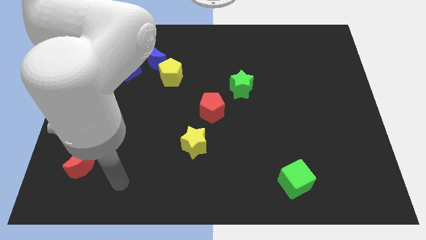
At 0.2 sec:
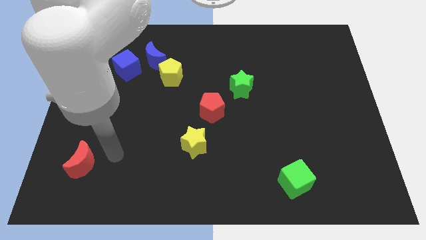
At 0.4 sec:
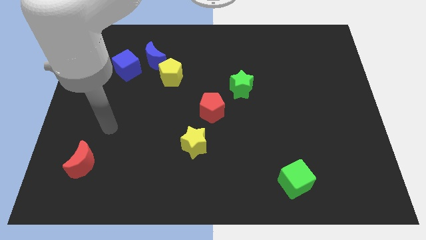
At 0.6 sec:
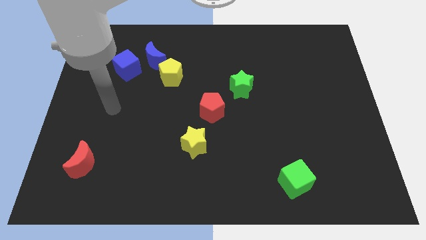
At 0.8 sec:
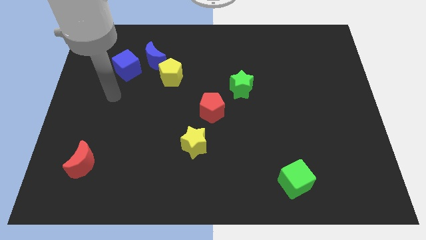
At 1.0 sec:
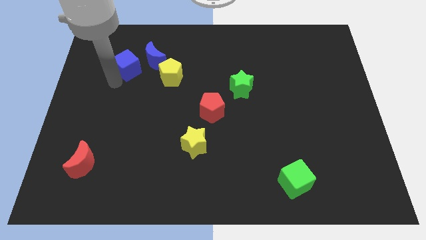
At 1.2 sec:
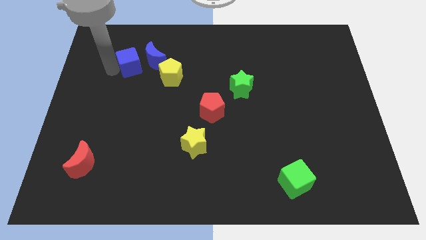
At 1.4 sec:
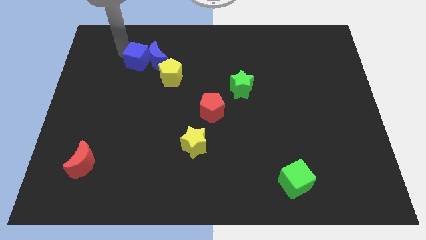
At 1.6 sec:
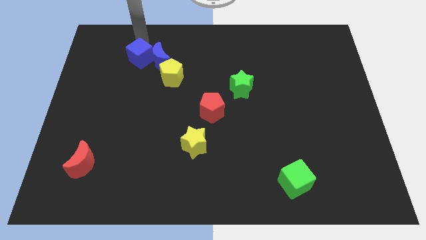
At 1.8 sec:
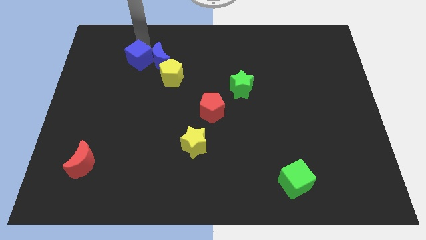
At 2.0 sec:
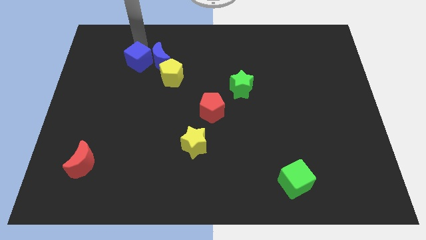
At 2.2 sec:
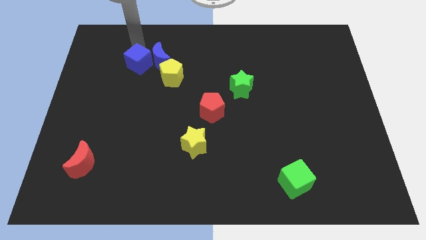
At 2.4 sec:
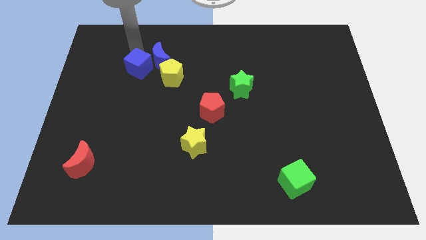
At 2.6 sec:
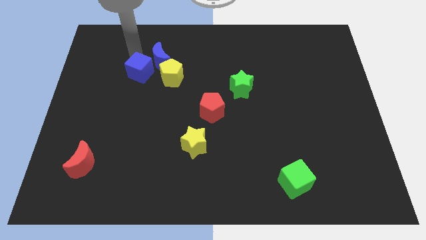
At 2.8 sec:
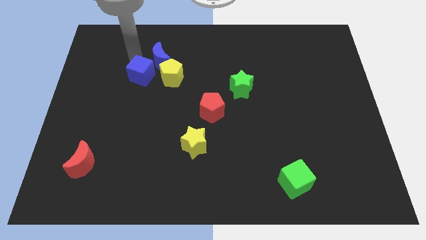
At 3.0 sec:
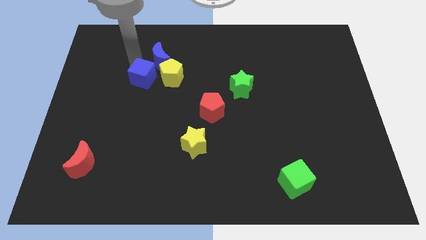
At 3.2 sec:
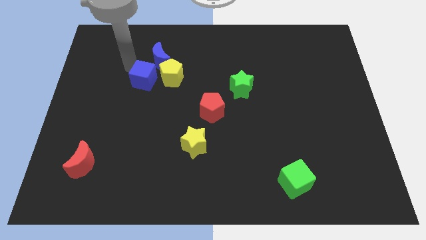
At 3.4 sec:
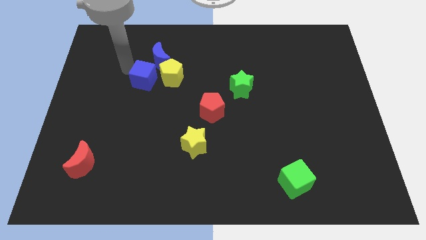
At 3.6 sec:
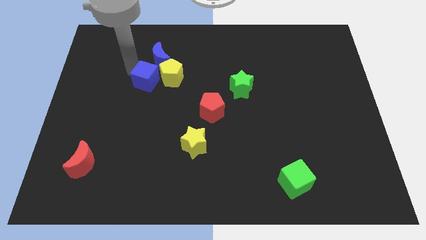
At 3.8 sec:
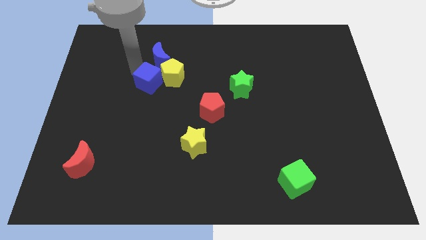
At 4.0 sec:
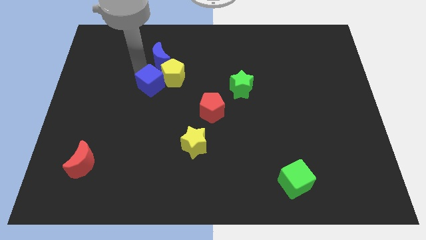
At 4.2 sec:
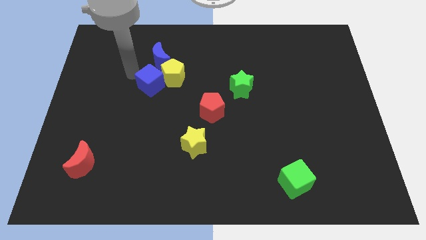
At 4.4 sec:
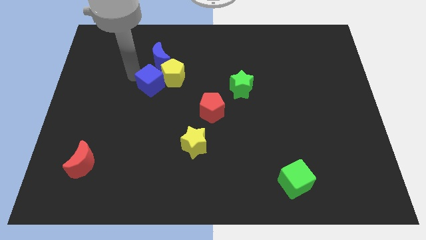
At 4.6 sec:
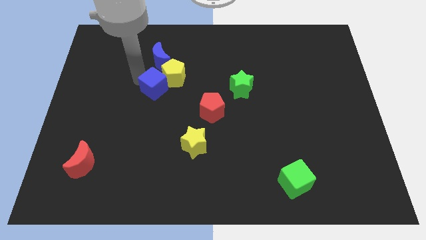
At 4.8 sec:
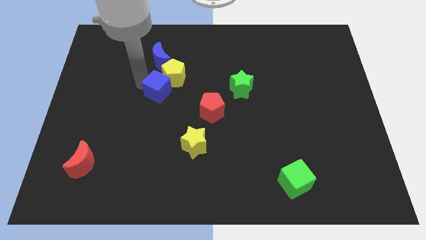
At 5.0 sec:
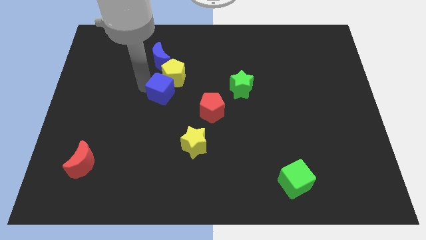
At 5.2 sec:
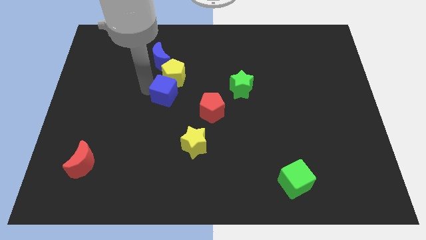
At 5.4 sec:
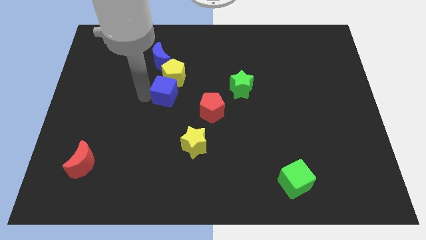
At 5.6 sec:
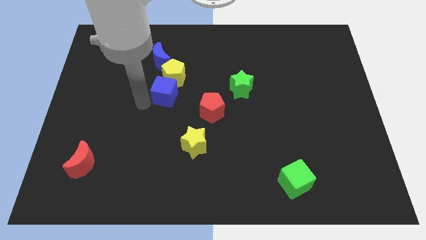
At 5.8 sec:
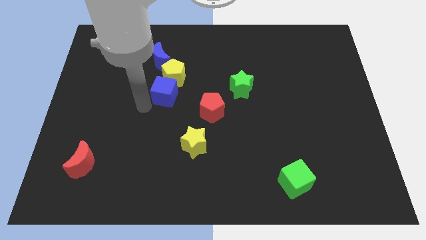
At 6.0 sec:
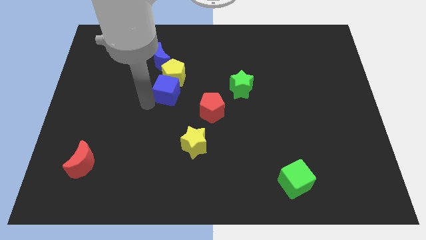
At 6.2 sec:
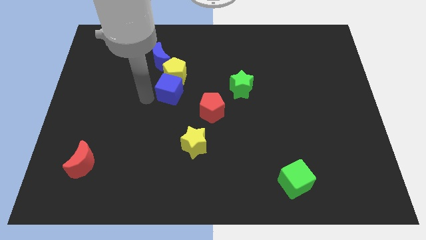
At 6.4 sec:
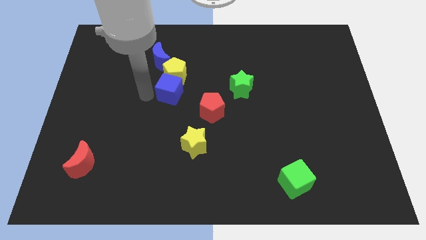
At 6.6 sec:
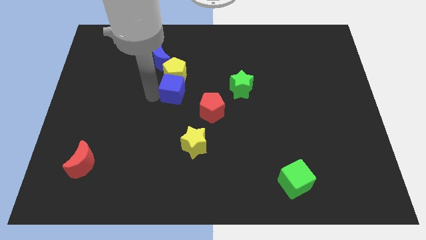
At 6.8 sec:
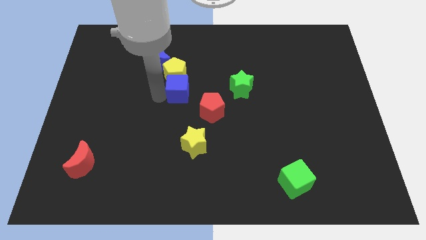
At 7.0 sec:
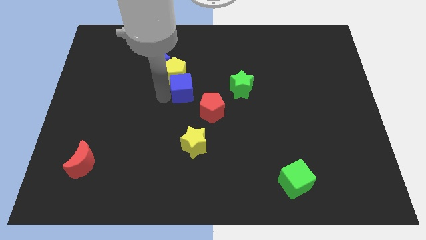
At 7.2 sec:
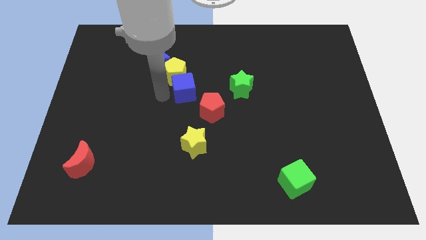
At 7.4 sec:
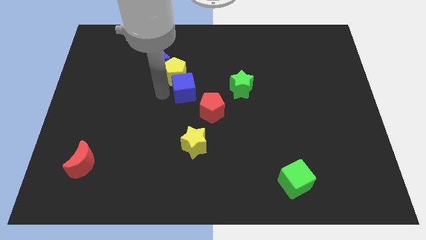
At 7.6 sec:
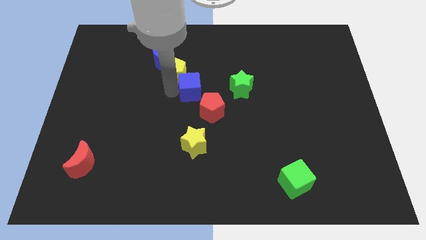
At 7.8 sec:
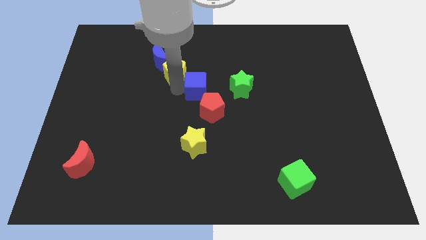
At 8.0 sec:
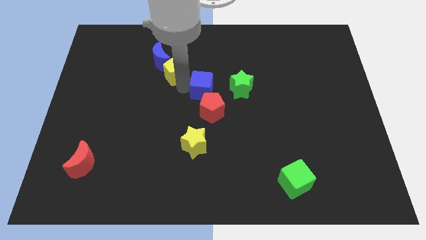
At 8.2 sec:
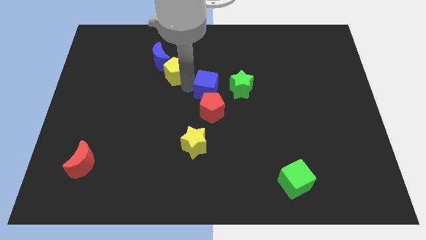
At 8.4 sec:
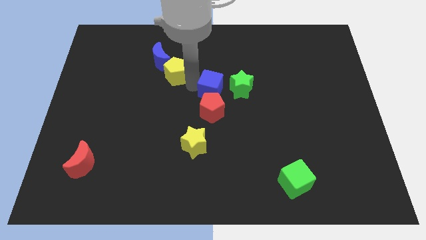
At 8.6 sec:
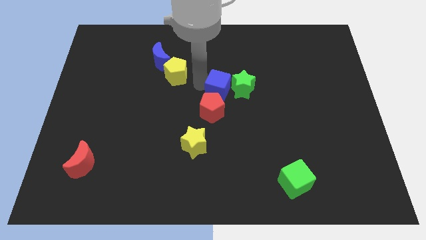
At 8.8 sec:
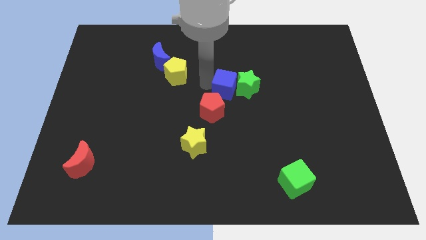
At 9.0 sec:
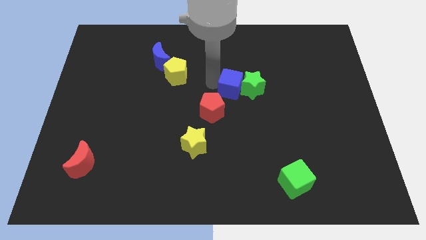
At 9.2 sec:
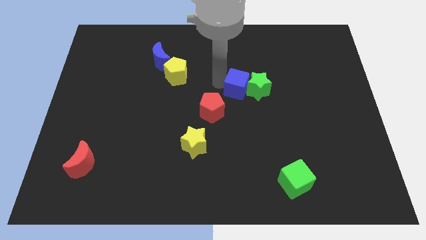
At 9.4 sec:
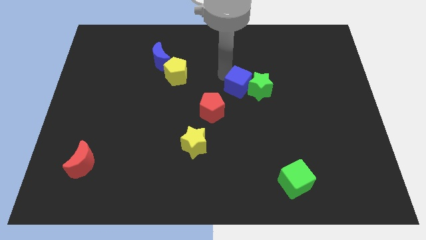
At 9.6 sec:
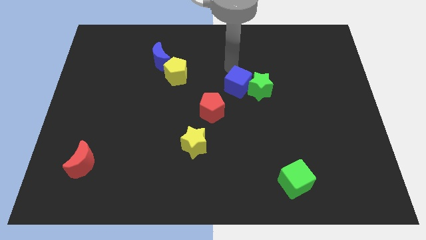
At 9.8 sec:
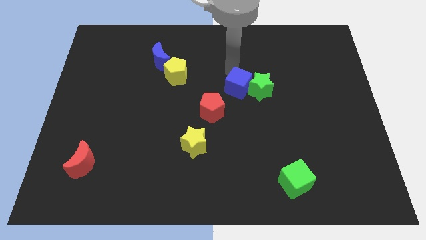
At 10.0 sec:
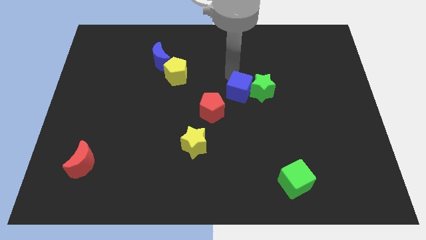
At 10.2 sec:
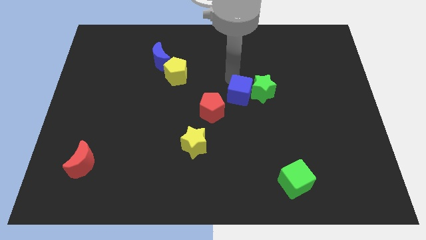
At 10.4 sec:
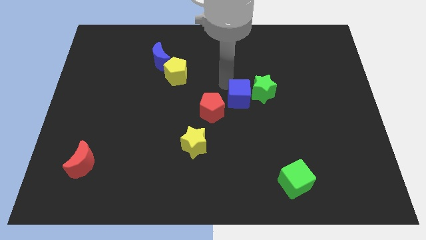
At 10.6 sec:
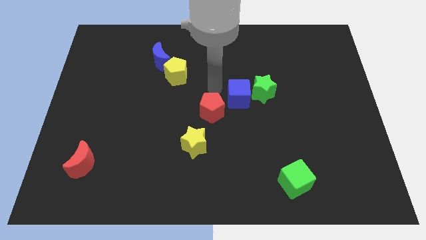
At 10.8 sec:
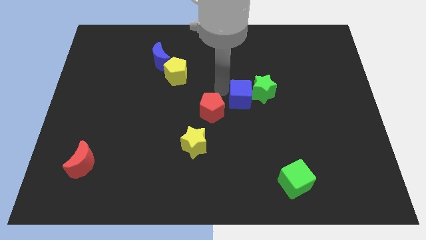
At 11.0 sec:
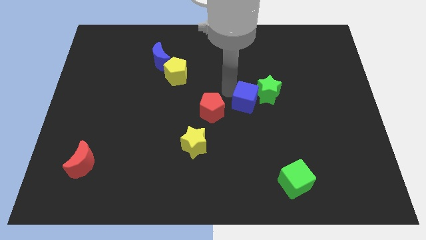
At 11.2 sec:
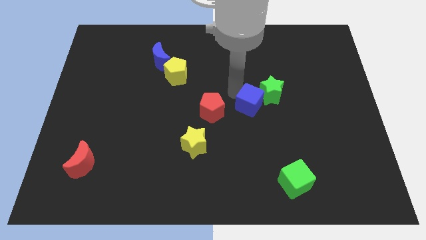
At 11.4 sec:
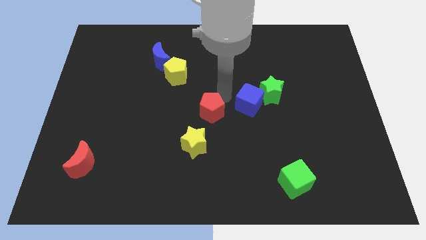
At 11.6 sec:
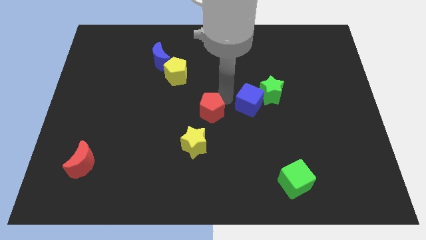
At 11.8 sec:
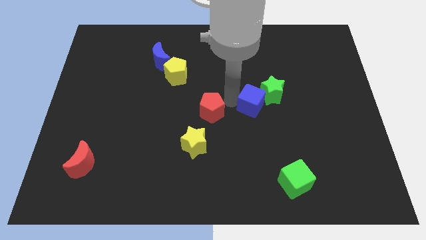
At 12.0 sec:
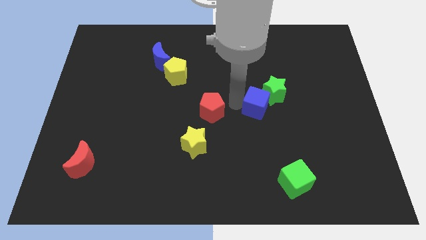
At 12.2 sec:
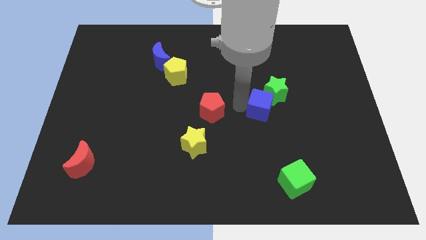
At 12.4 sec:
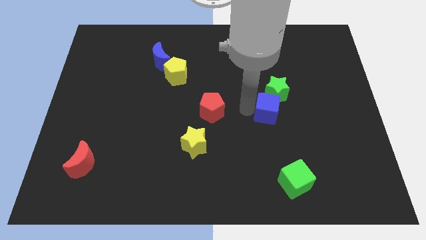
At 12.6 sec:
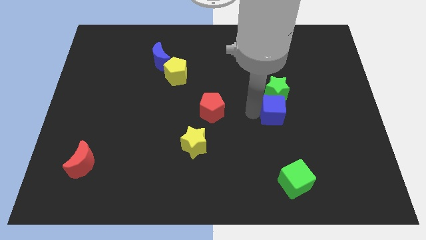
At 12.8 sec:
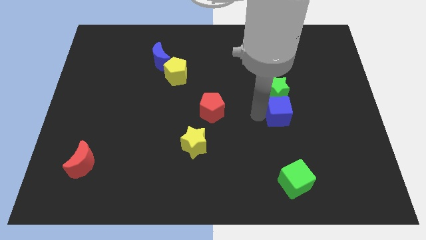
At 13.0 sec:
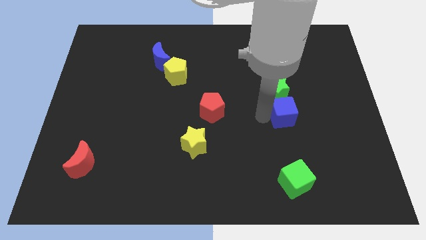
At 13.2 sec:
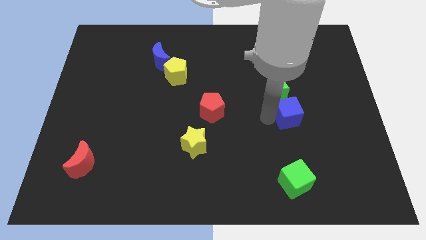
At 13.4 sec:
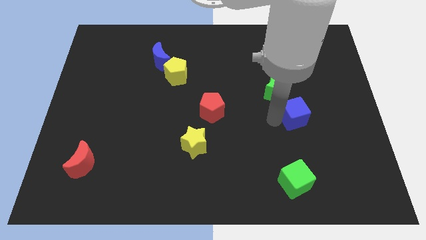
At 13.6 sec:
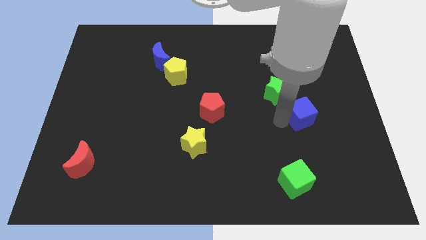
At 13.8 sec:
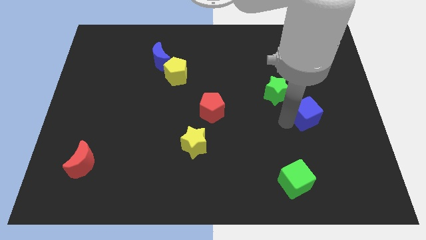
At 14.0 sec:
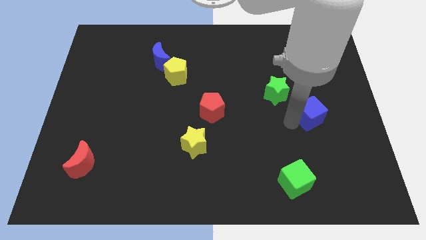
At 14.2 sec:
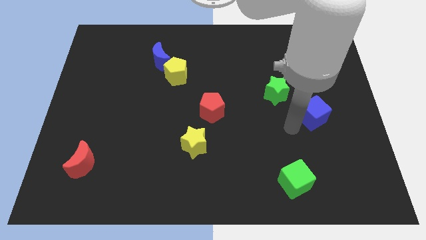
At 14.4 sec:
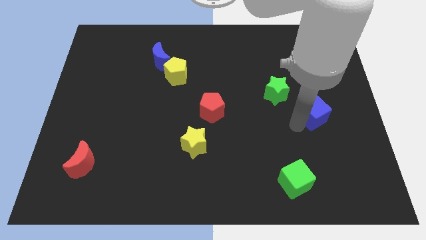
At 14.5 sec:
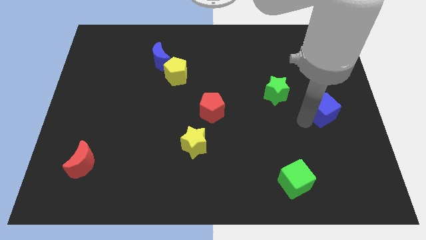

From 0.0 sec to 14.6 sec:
move the blue cube to the center right
